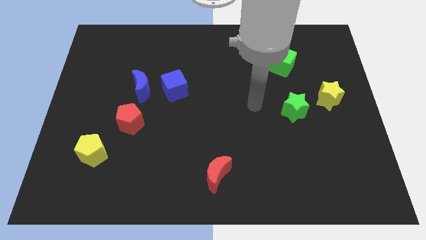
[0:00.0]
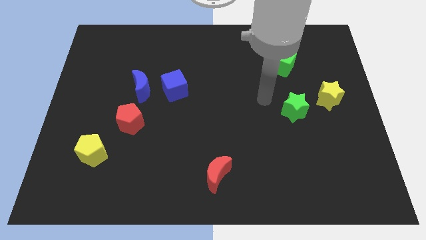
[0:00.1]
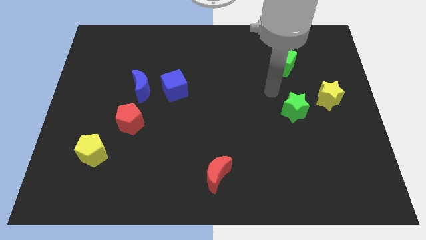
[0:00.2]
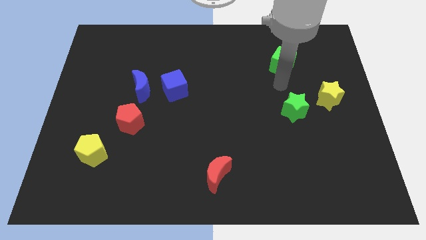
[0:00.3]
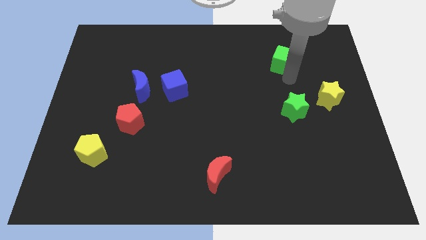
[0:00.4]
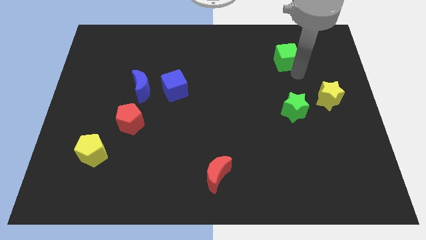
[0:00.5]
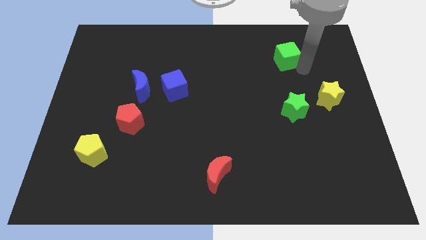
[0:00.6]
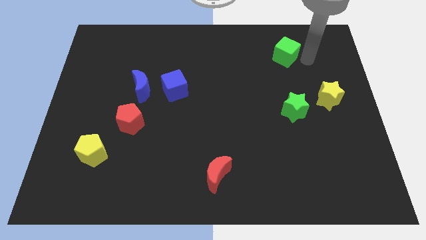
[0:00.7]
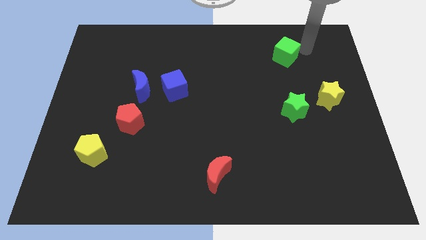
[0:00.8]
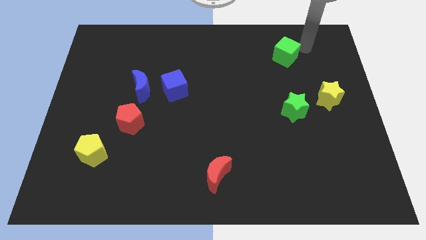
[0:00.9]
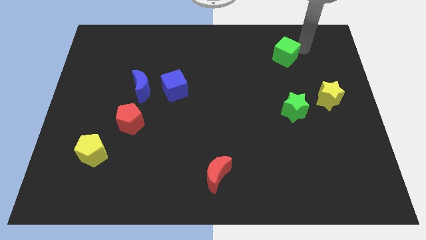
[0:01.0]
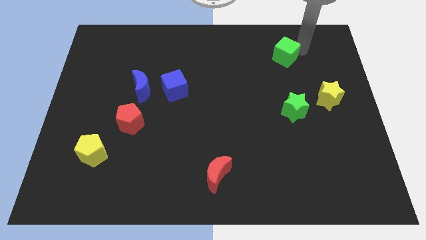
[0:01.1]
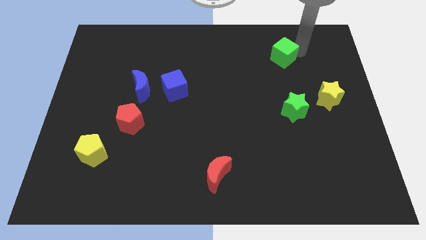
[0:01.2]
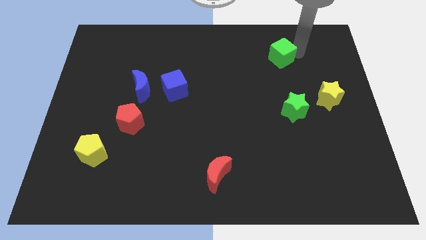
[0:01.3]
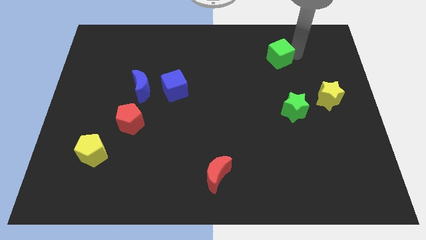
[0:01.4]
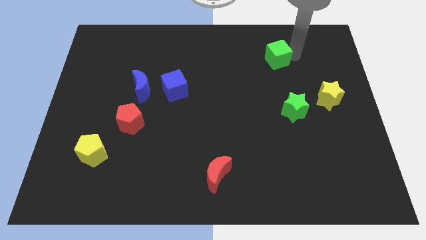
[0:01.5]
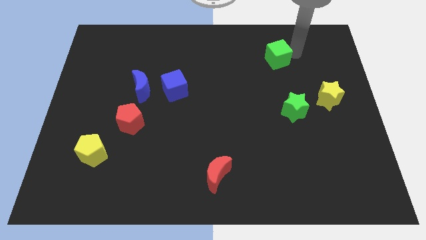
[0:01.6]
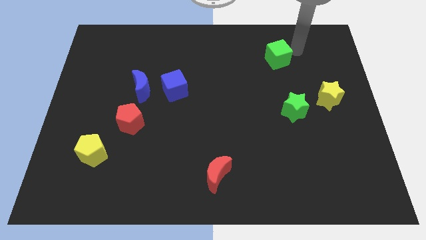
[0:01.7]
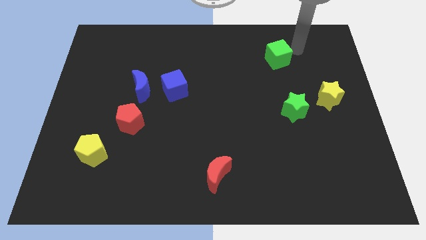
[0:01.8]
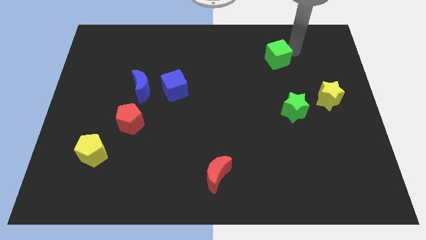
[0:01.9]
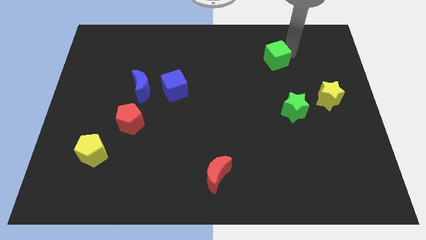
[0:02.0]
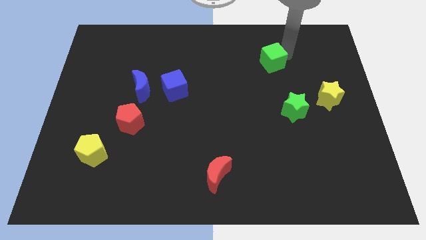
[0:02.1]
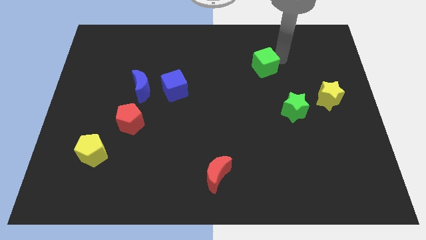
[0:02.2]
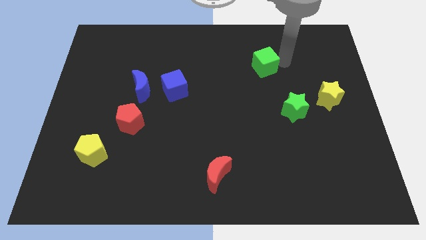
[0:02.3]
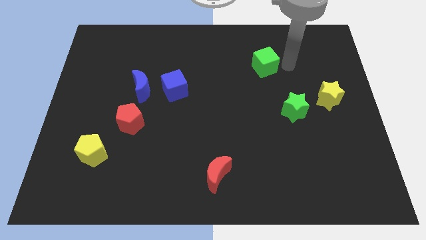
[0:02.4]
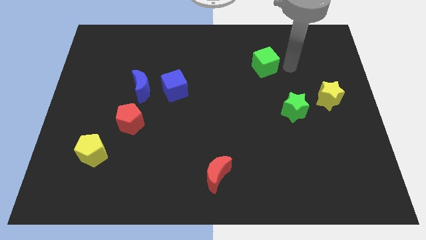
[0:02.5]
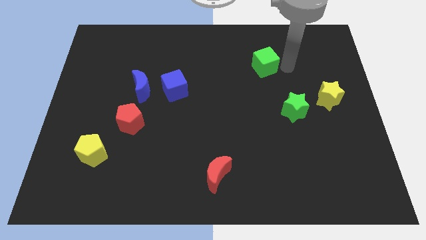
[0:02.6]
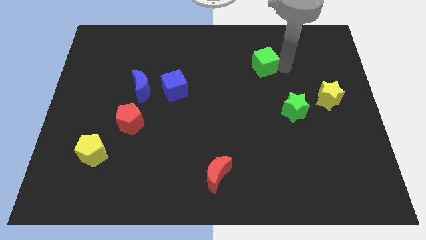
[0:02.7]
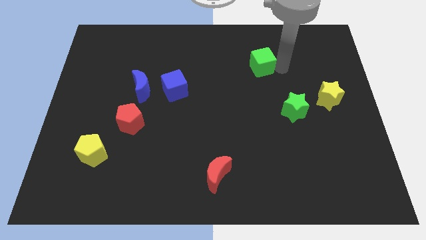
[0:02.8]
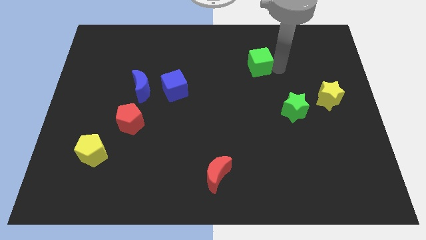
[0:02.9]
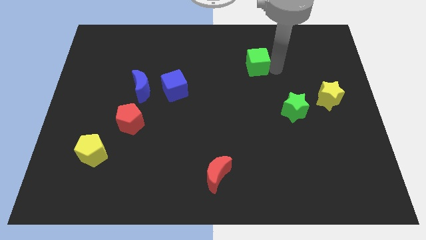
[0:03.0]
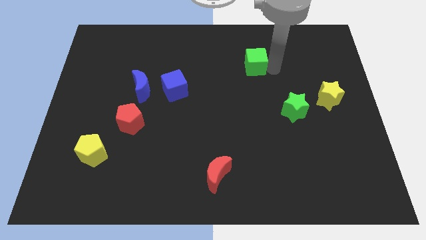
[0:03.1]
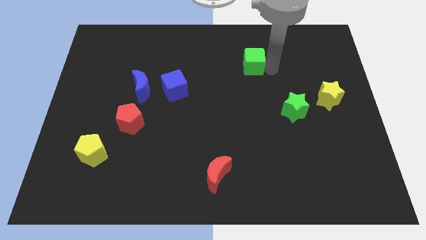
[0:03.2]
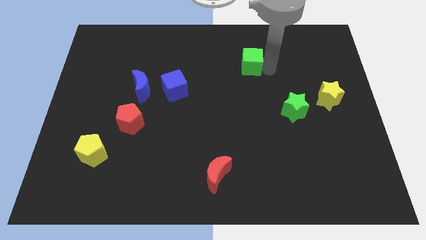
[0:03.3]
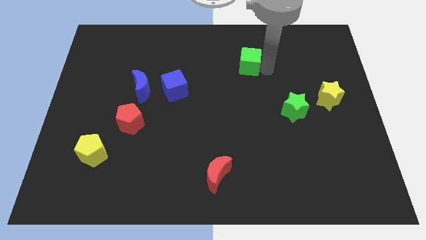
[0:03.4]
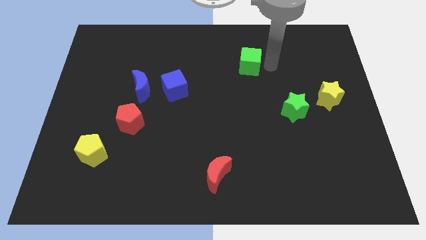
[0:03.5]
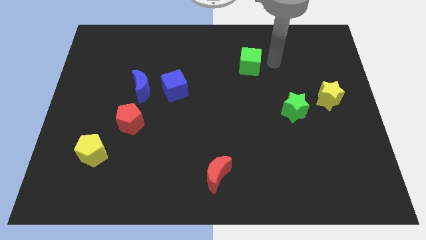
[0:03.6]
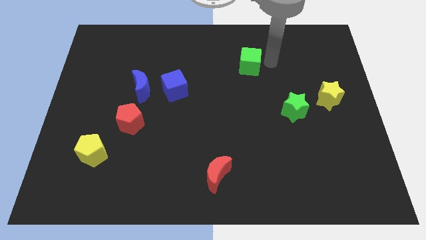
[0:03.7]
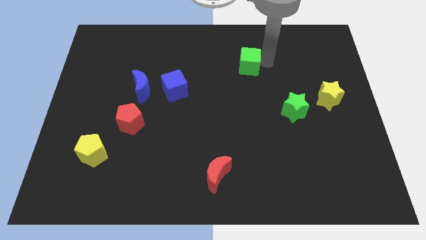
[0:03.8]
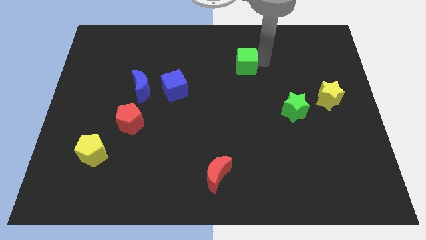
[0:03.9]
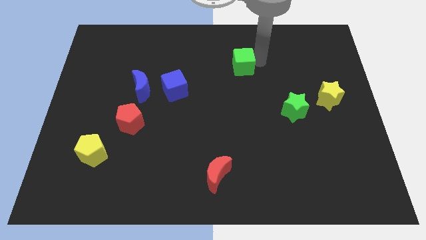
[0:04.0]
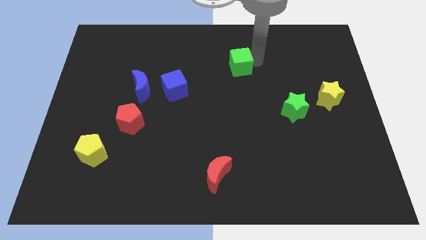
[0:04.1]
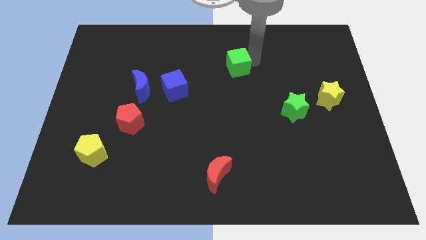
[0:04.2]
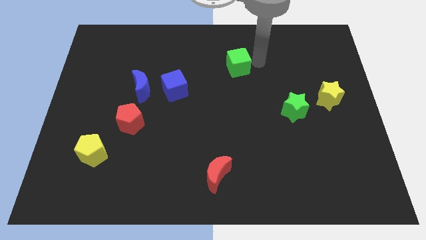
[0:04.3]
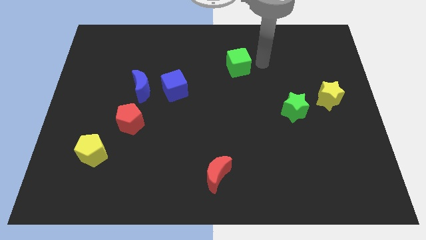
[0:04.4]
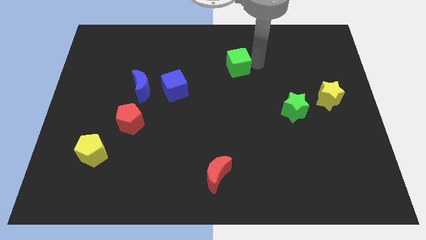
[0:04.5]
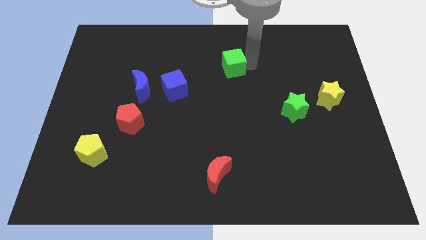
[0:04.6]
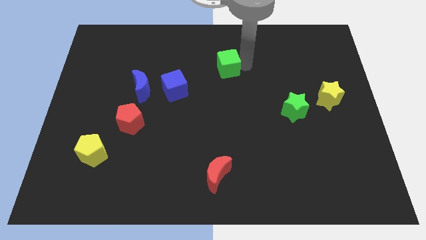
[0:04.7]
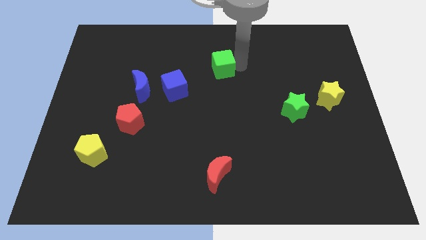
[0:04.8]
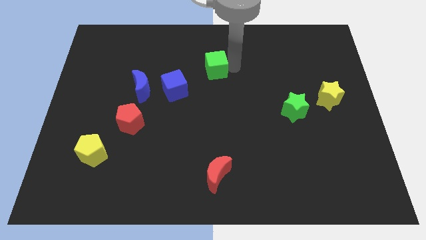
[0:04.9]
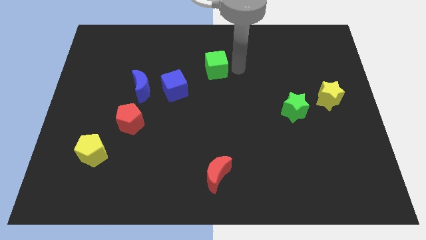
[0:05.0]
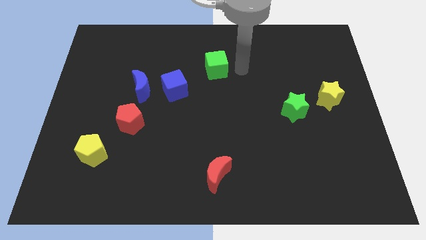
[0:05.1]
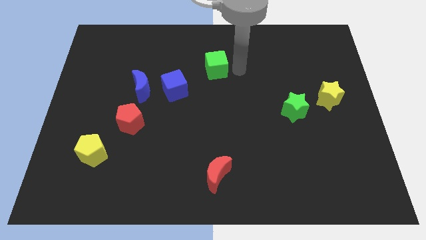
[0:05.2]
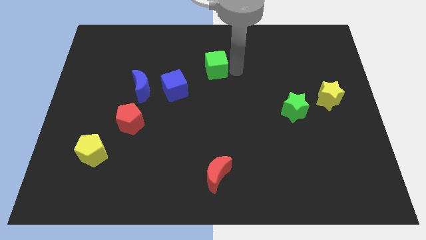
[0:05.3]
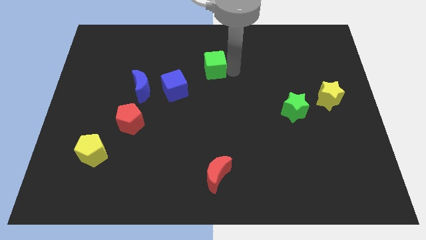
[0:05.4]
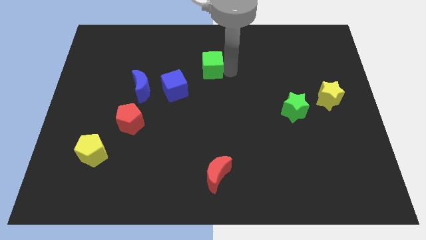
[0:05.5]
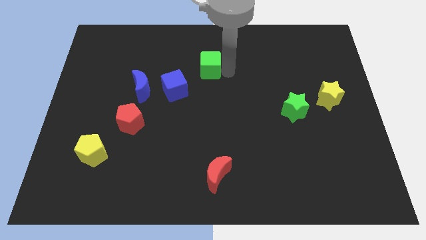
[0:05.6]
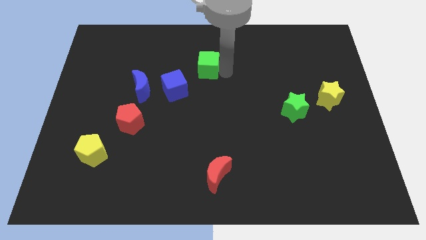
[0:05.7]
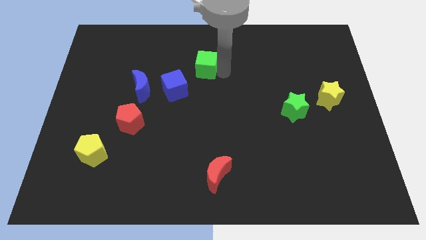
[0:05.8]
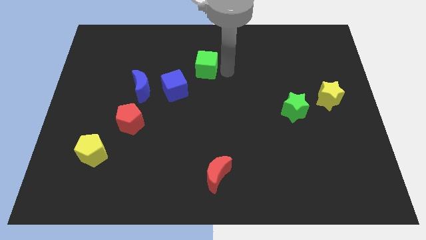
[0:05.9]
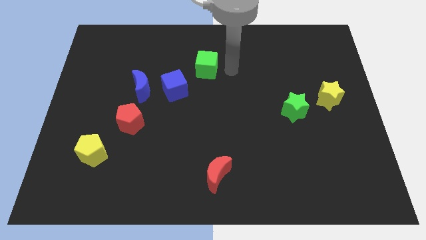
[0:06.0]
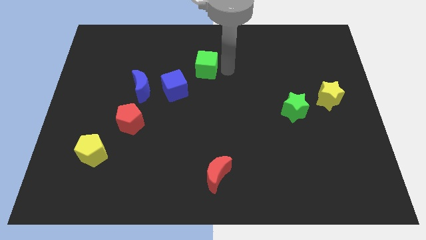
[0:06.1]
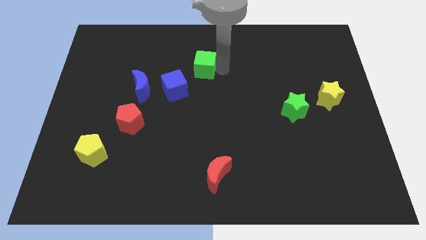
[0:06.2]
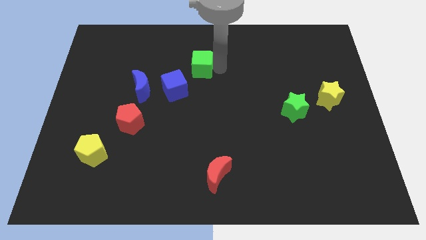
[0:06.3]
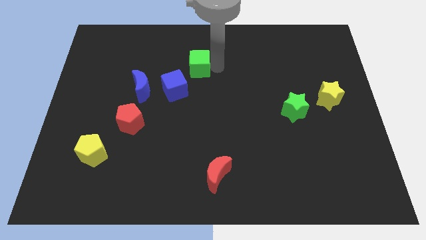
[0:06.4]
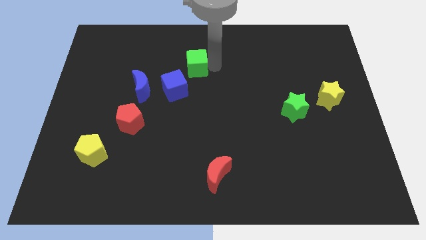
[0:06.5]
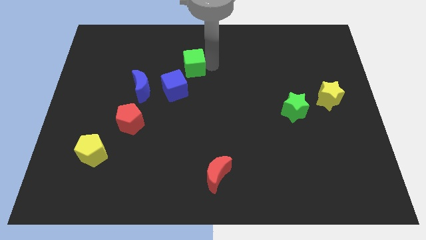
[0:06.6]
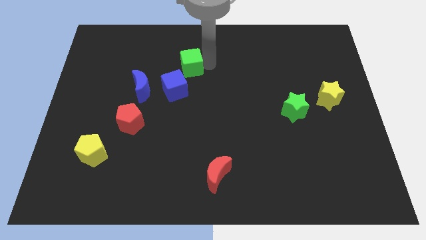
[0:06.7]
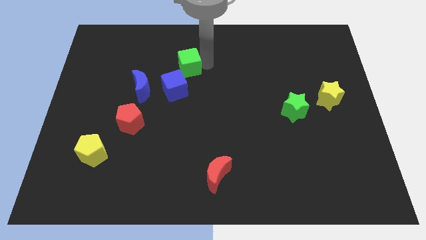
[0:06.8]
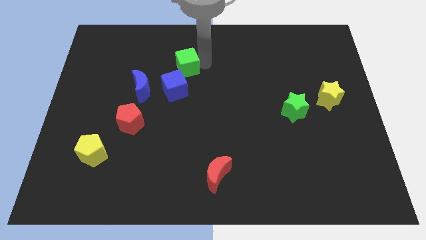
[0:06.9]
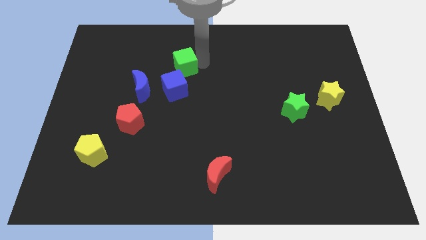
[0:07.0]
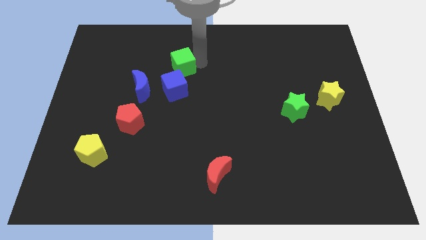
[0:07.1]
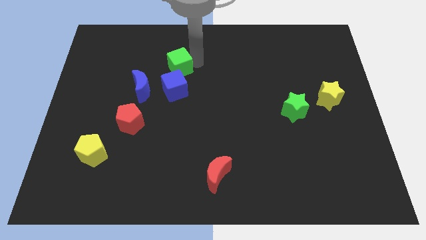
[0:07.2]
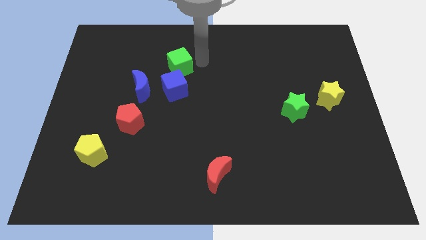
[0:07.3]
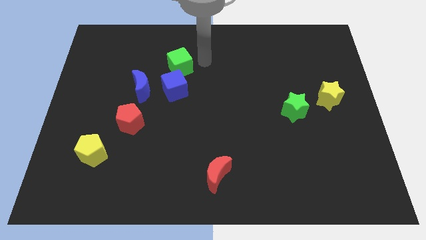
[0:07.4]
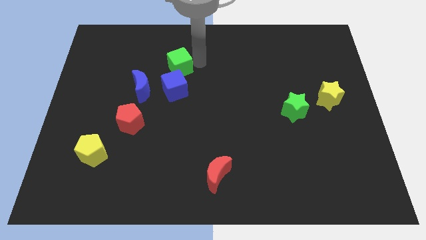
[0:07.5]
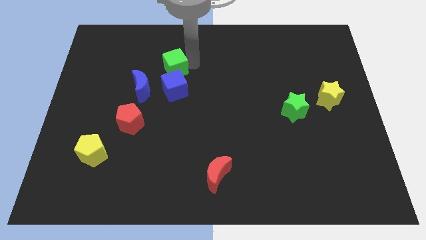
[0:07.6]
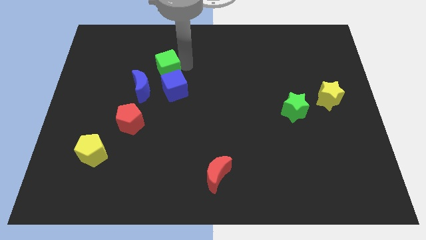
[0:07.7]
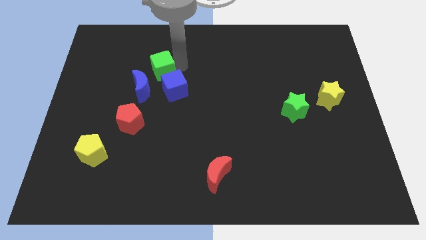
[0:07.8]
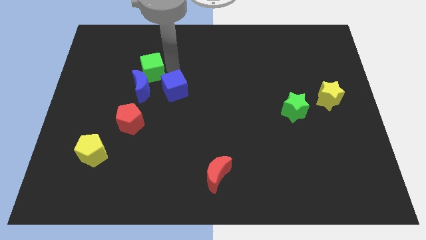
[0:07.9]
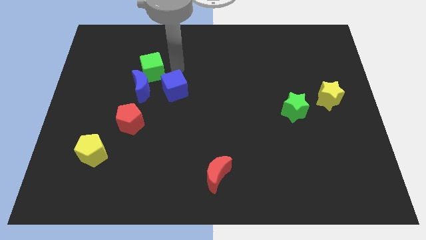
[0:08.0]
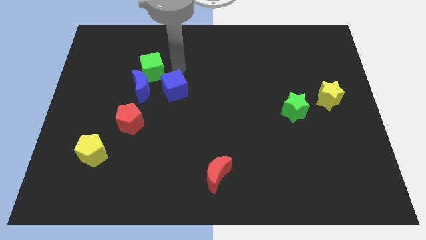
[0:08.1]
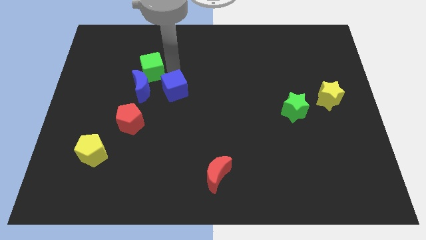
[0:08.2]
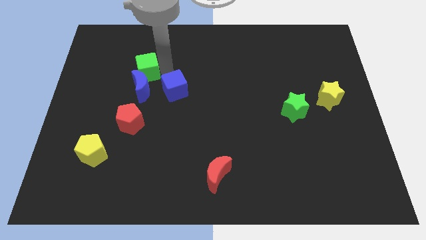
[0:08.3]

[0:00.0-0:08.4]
put the green cube to the top left side of the blue moon
